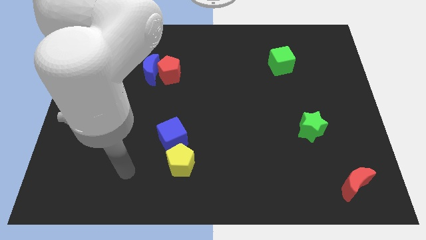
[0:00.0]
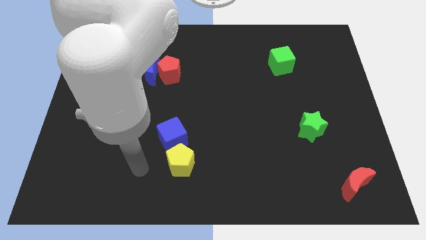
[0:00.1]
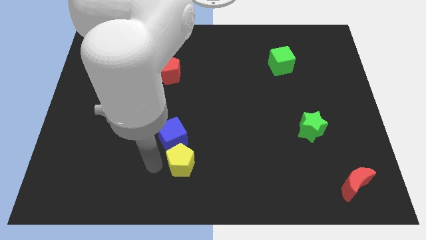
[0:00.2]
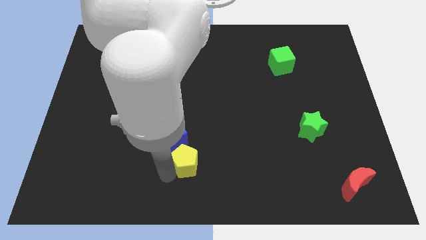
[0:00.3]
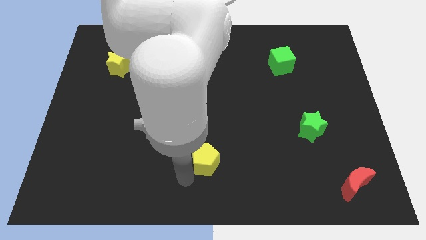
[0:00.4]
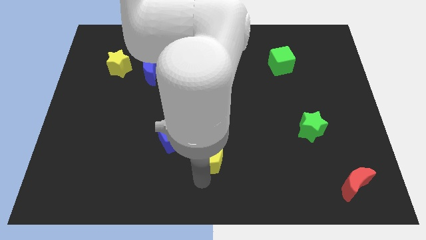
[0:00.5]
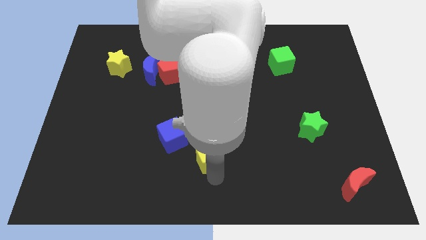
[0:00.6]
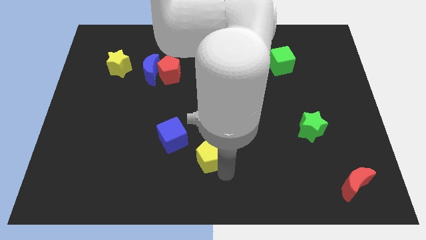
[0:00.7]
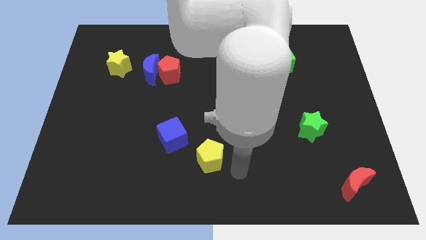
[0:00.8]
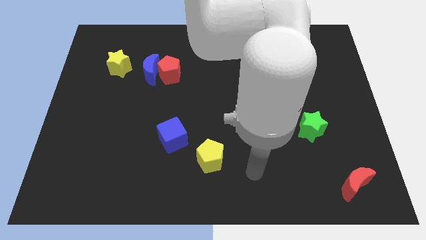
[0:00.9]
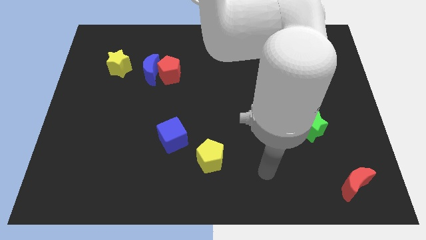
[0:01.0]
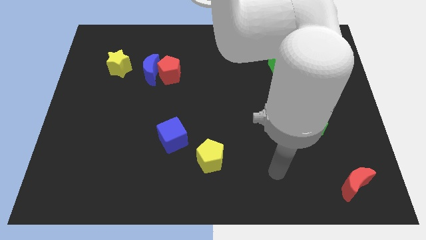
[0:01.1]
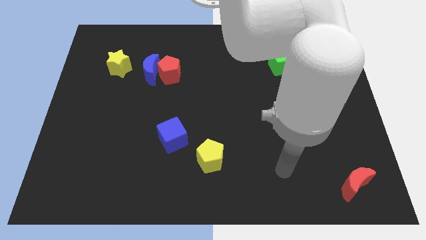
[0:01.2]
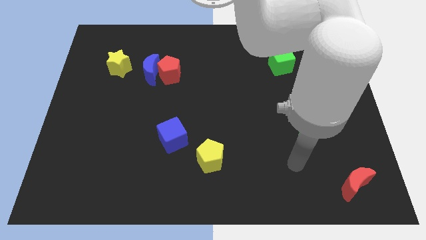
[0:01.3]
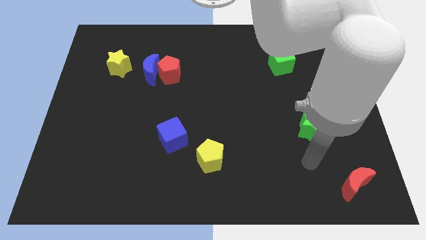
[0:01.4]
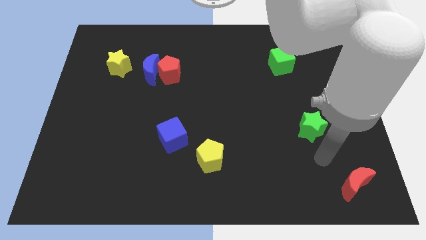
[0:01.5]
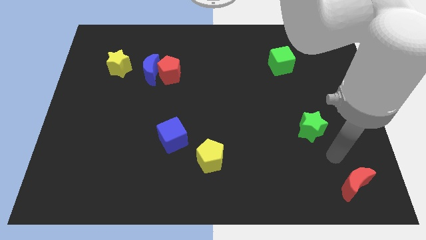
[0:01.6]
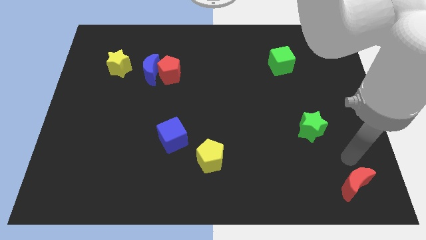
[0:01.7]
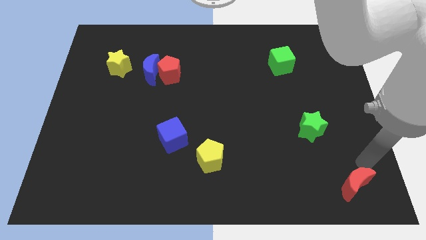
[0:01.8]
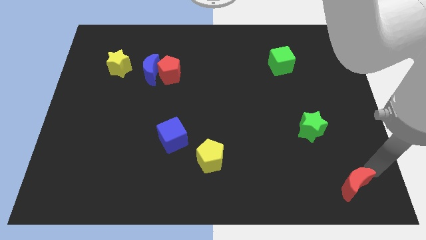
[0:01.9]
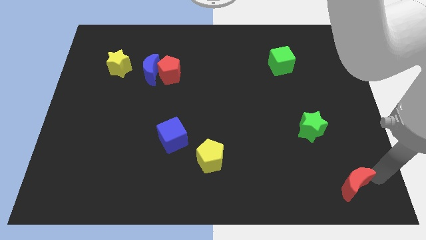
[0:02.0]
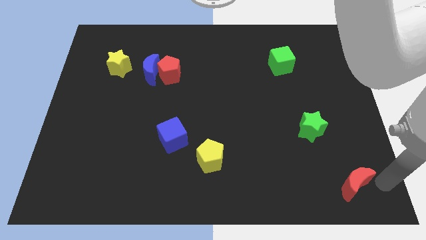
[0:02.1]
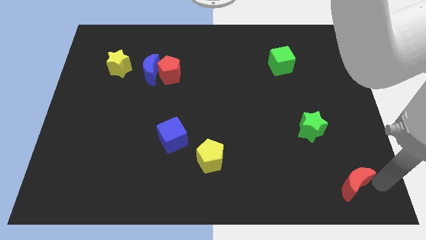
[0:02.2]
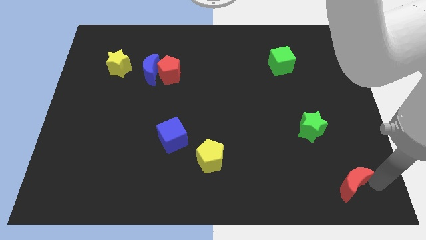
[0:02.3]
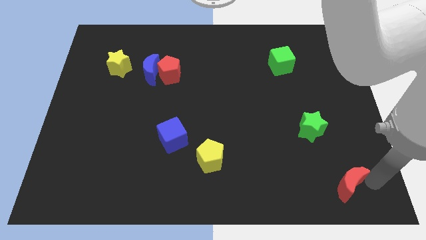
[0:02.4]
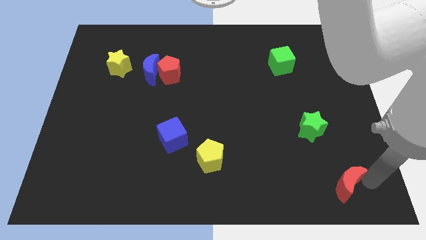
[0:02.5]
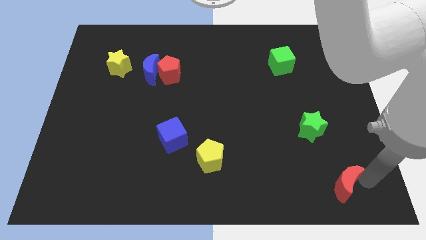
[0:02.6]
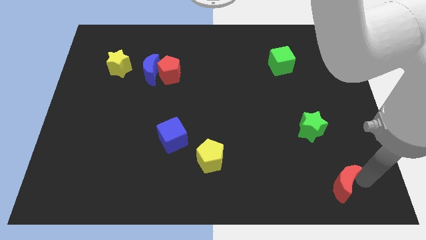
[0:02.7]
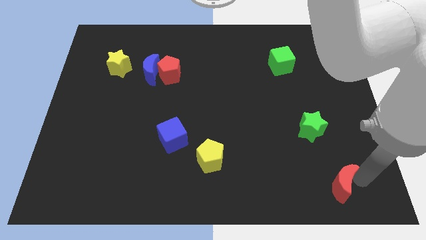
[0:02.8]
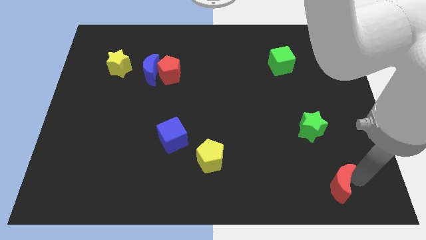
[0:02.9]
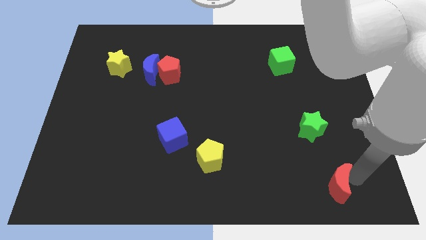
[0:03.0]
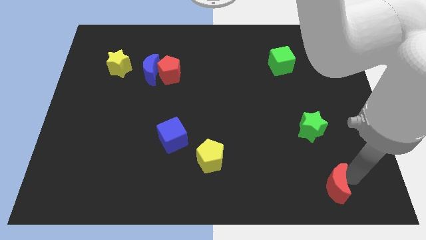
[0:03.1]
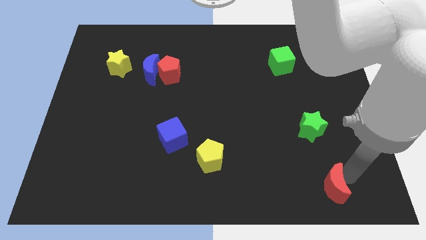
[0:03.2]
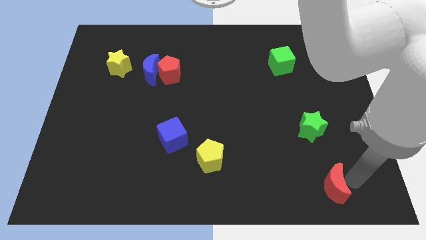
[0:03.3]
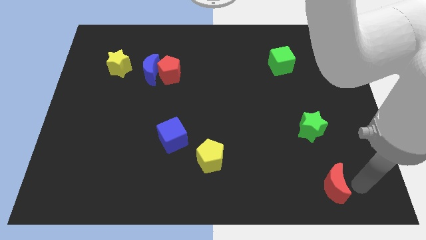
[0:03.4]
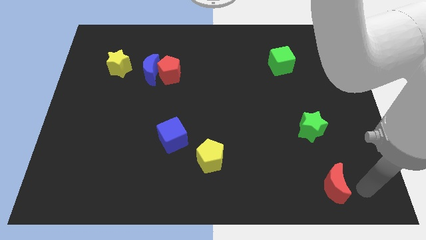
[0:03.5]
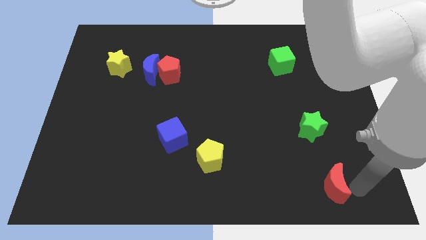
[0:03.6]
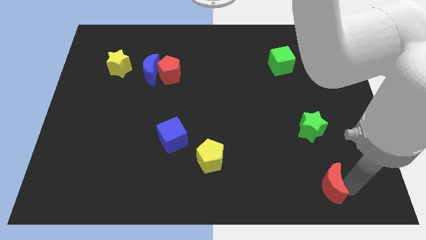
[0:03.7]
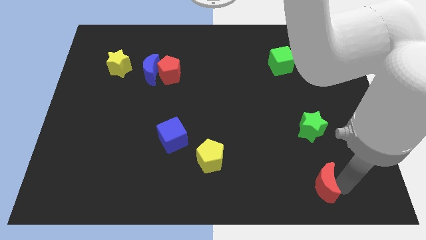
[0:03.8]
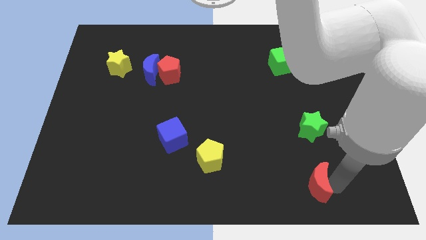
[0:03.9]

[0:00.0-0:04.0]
slightly push the red moon to the left

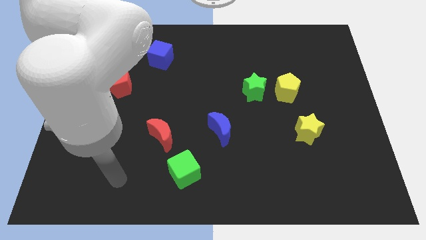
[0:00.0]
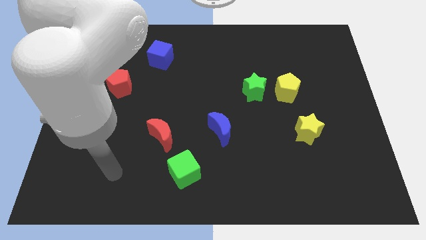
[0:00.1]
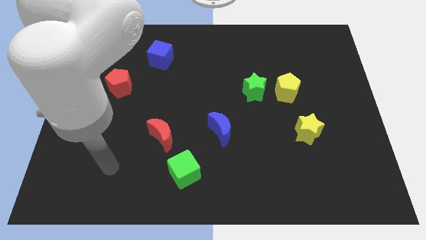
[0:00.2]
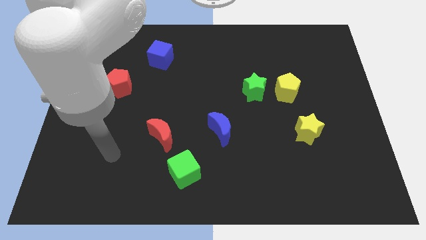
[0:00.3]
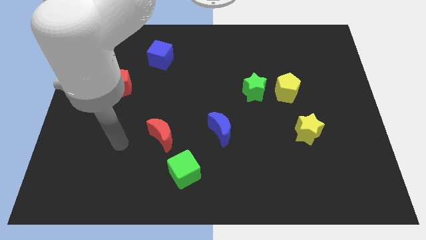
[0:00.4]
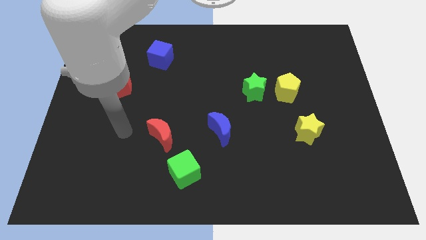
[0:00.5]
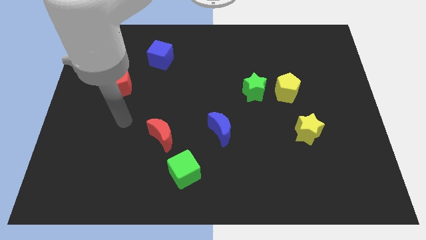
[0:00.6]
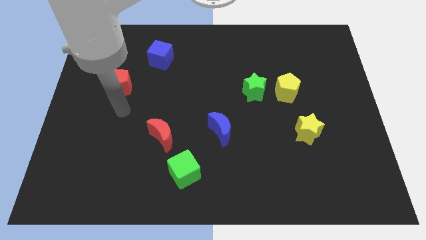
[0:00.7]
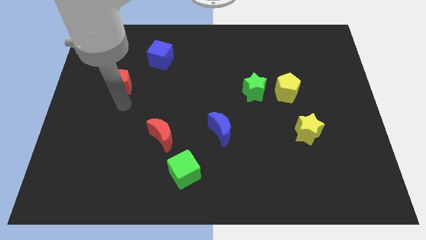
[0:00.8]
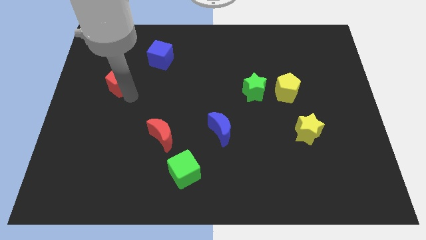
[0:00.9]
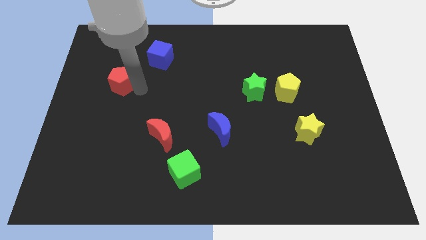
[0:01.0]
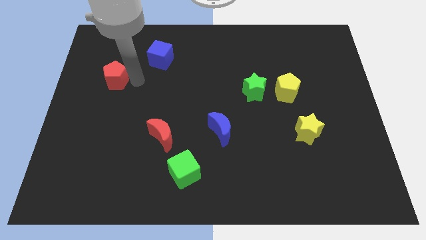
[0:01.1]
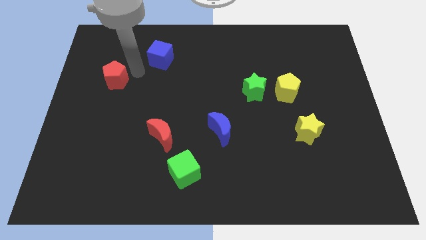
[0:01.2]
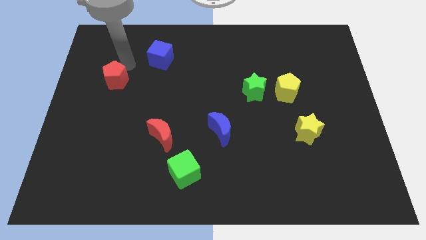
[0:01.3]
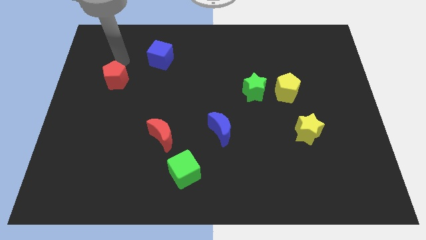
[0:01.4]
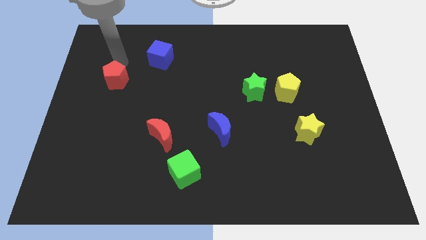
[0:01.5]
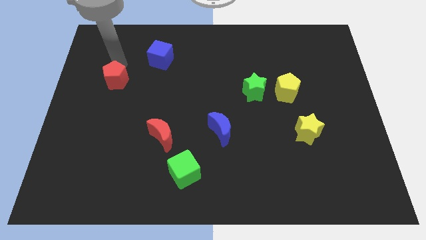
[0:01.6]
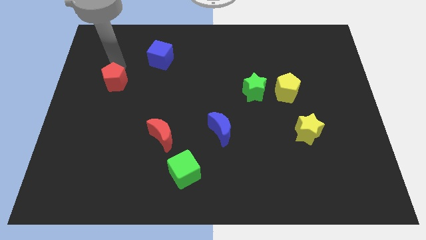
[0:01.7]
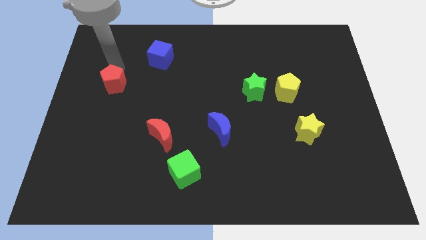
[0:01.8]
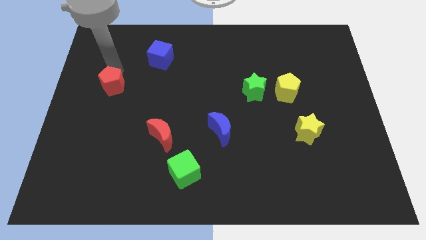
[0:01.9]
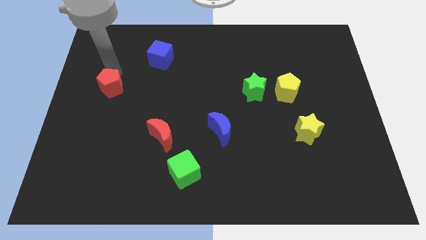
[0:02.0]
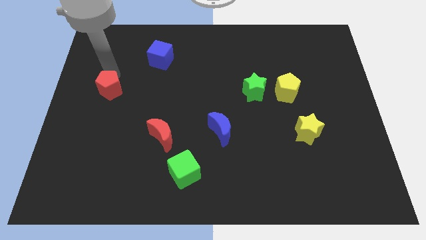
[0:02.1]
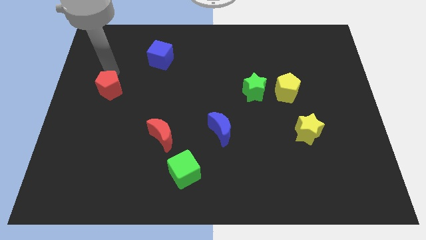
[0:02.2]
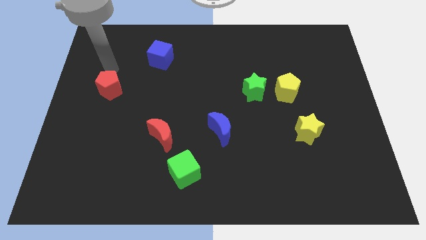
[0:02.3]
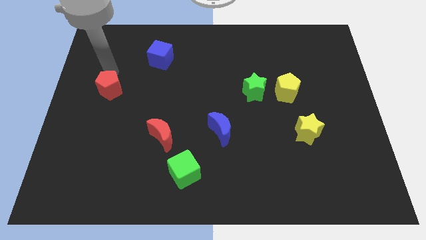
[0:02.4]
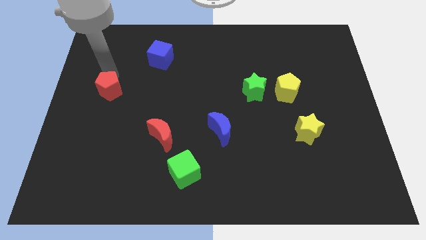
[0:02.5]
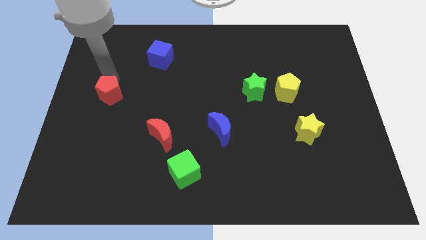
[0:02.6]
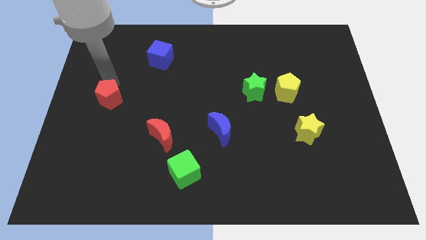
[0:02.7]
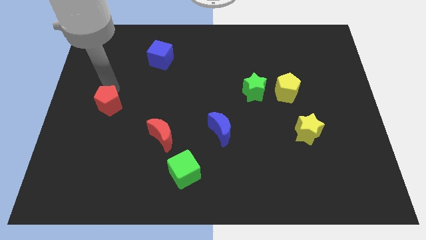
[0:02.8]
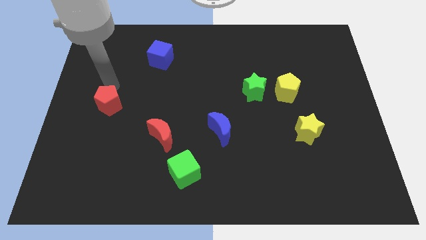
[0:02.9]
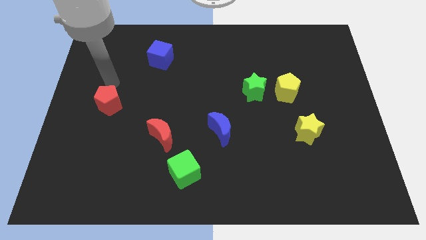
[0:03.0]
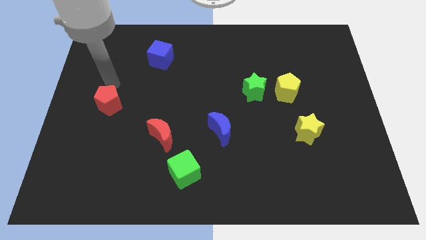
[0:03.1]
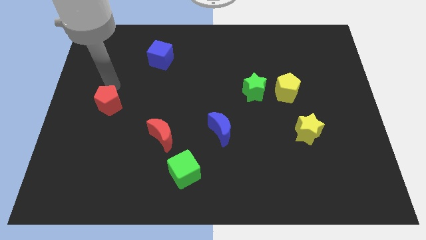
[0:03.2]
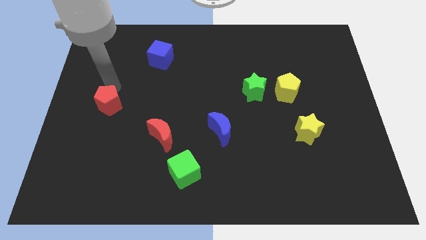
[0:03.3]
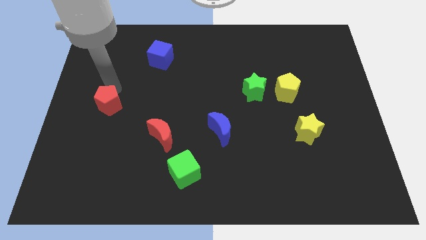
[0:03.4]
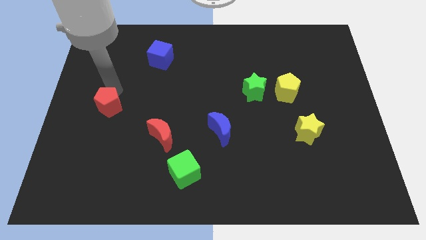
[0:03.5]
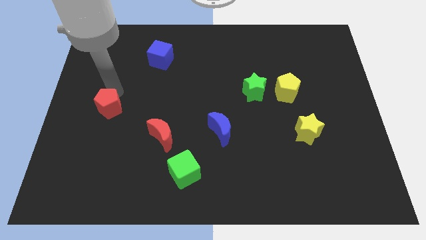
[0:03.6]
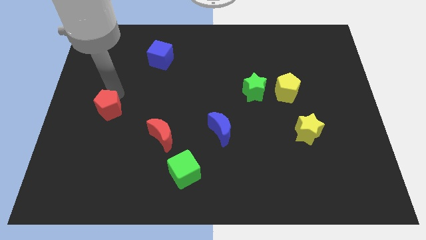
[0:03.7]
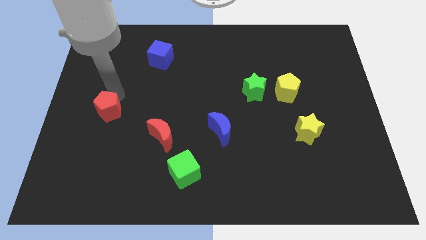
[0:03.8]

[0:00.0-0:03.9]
move the red pentagon down a little
